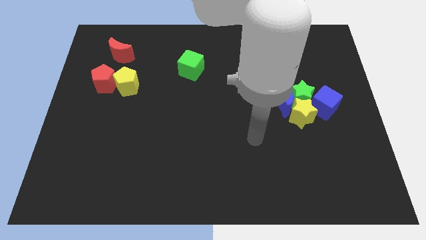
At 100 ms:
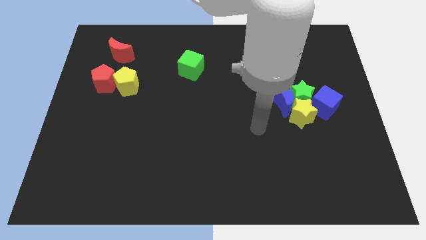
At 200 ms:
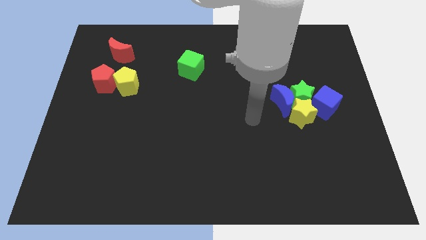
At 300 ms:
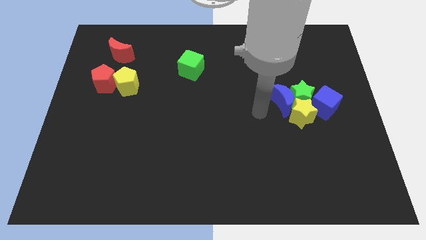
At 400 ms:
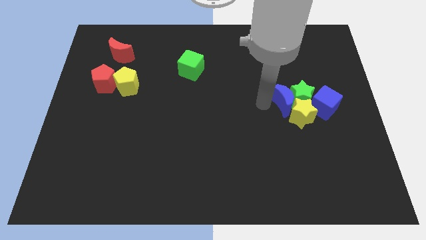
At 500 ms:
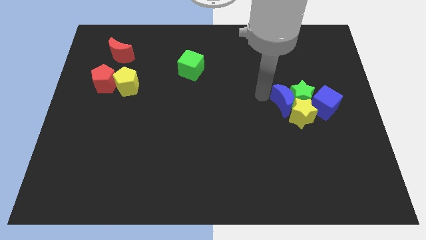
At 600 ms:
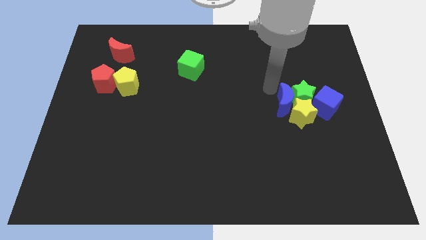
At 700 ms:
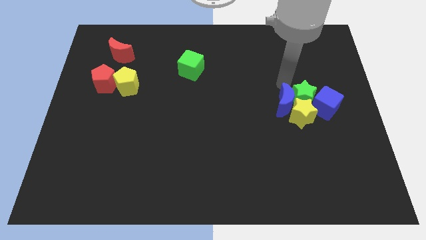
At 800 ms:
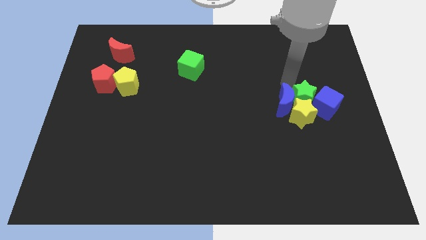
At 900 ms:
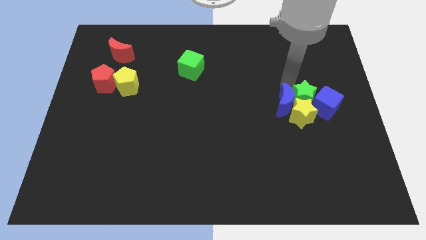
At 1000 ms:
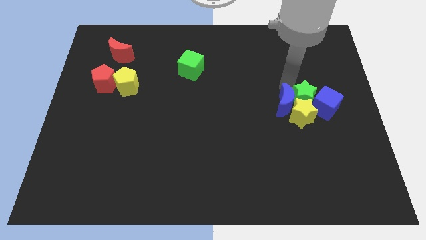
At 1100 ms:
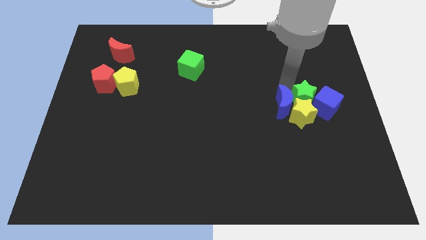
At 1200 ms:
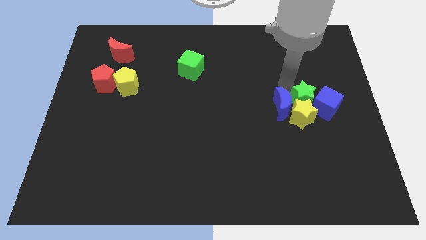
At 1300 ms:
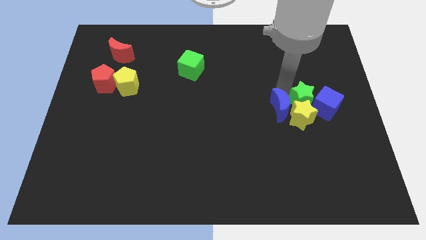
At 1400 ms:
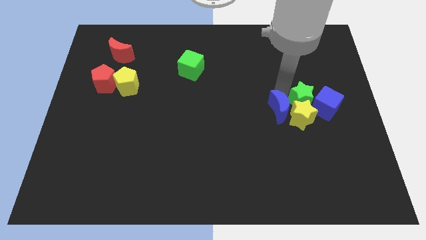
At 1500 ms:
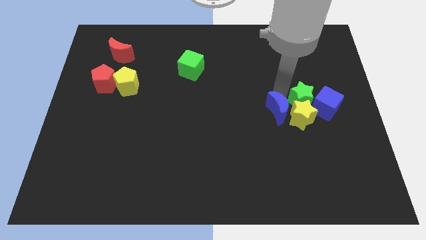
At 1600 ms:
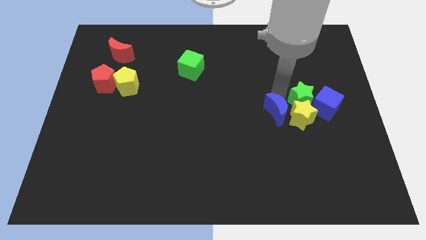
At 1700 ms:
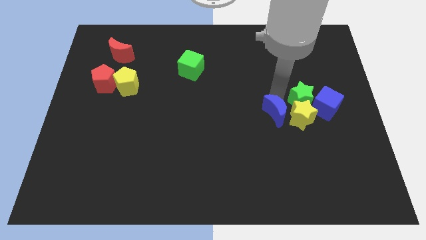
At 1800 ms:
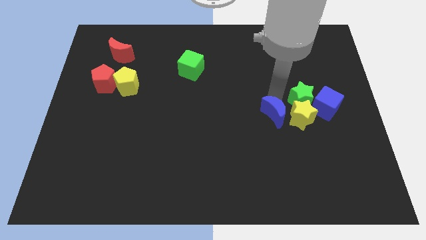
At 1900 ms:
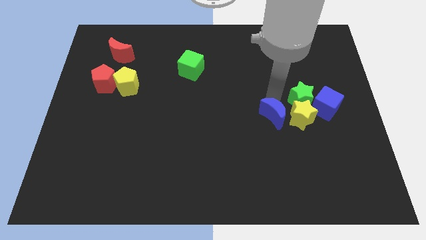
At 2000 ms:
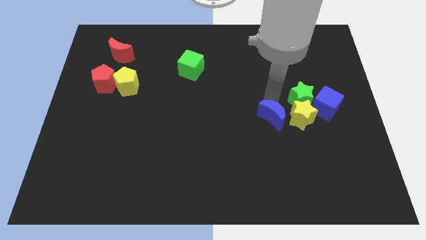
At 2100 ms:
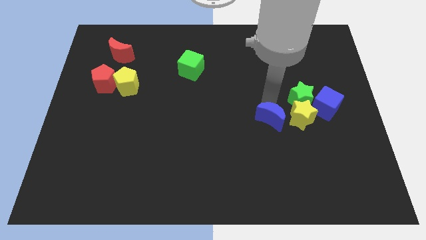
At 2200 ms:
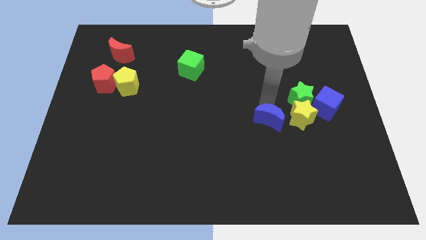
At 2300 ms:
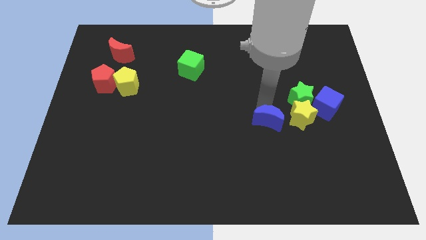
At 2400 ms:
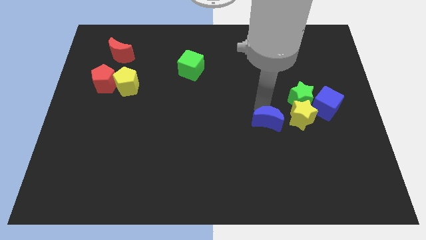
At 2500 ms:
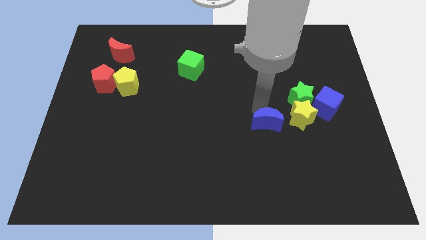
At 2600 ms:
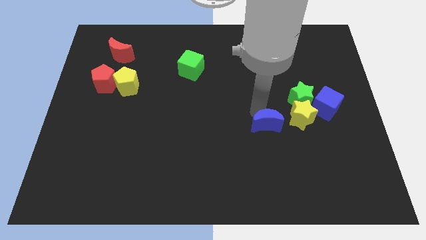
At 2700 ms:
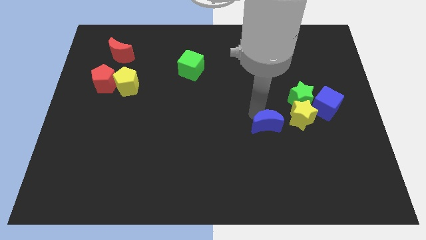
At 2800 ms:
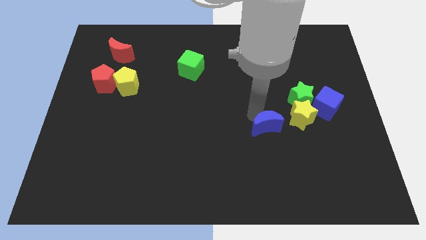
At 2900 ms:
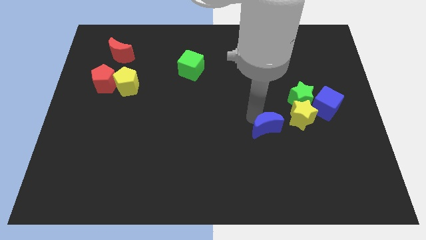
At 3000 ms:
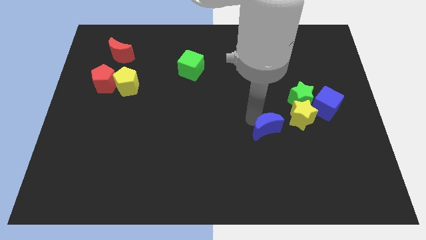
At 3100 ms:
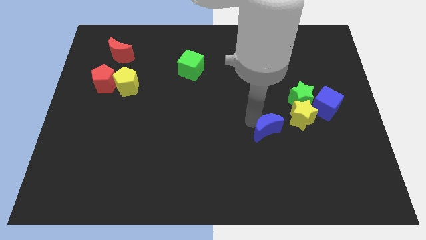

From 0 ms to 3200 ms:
slightly move the blue moon downwards

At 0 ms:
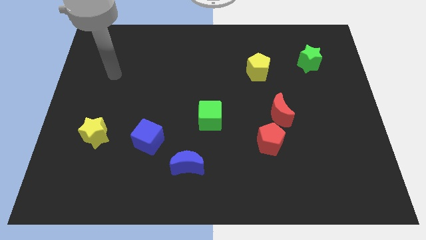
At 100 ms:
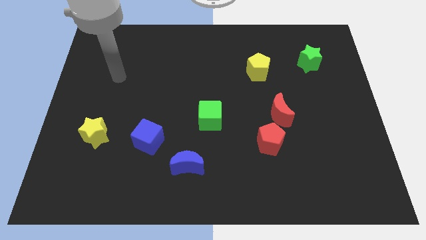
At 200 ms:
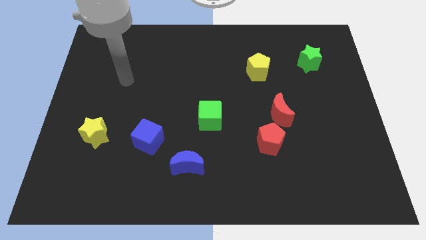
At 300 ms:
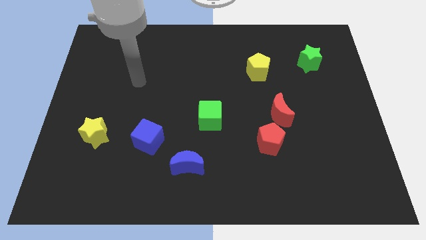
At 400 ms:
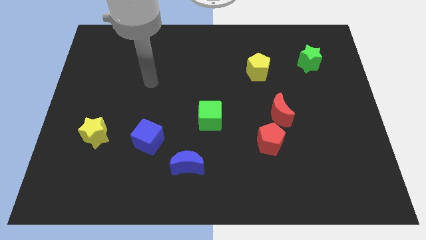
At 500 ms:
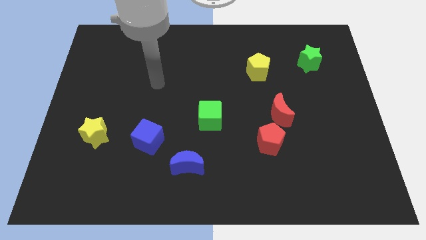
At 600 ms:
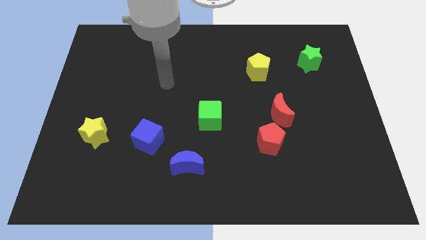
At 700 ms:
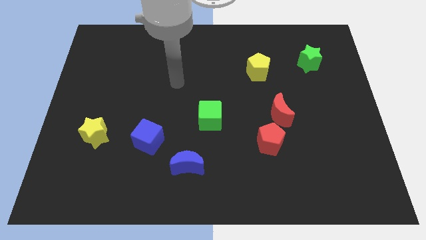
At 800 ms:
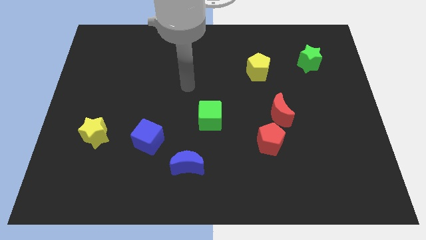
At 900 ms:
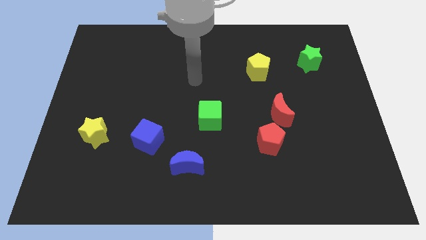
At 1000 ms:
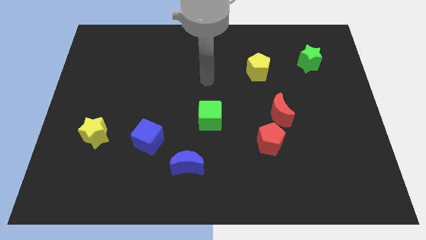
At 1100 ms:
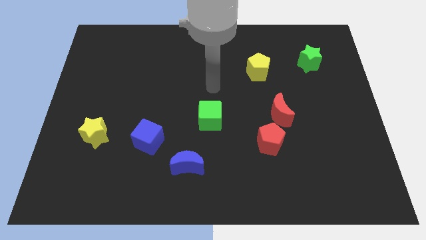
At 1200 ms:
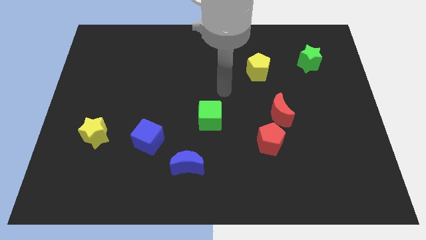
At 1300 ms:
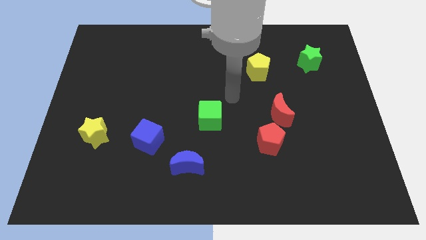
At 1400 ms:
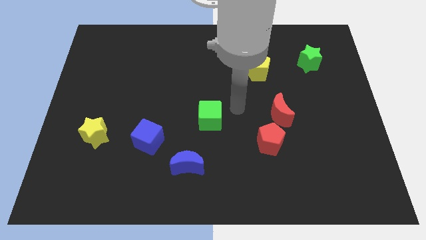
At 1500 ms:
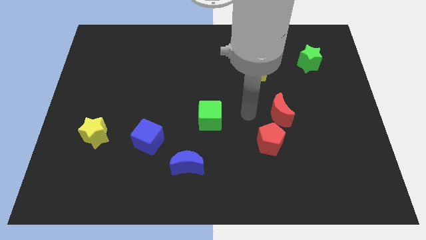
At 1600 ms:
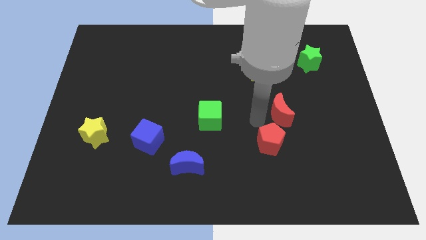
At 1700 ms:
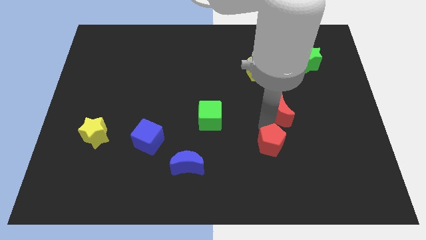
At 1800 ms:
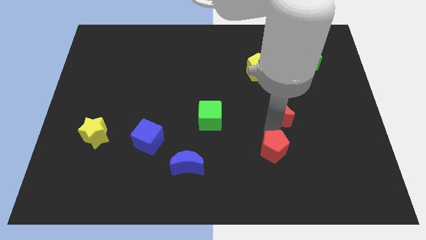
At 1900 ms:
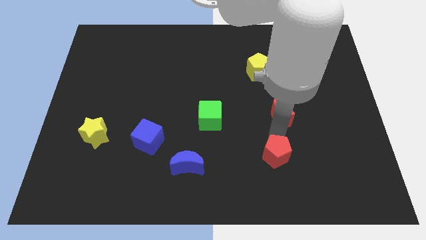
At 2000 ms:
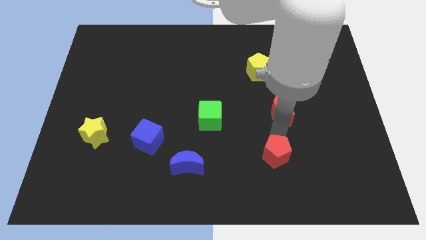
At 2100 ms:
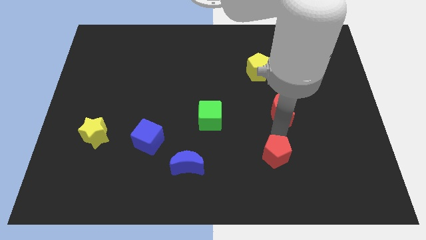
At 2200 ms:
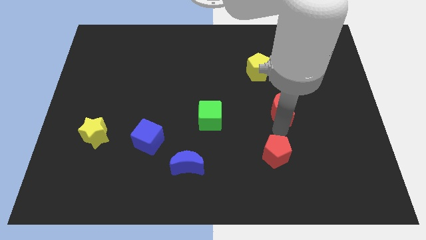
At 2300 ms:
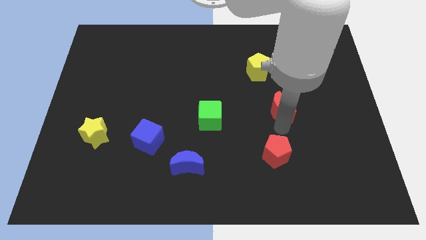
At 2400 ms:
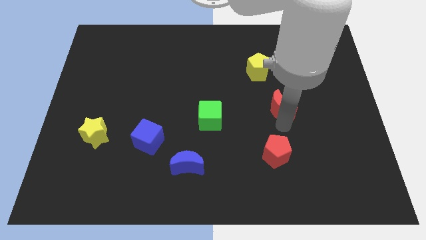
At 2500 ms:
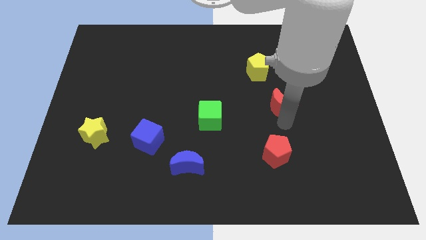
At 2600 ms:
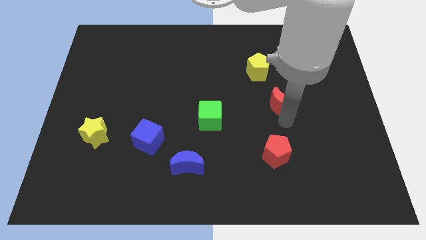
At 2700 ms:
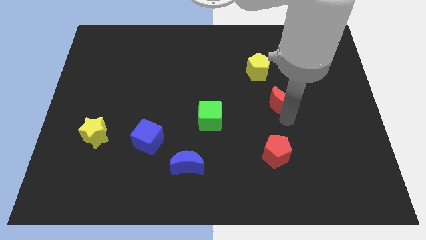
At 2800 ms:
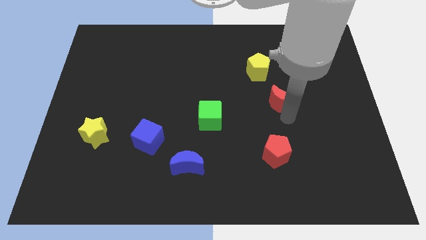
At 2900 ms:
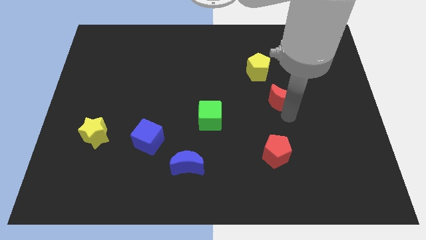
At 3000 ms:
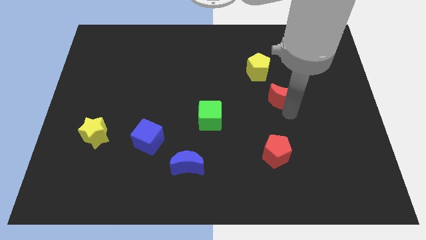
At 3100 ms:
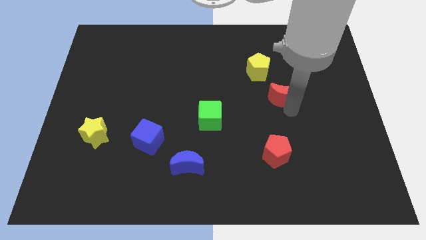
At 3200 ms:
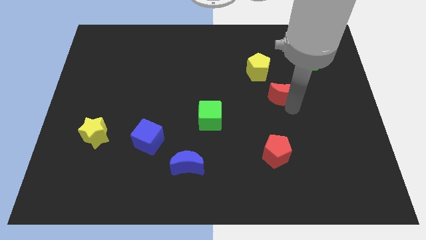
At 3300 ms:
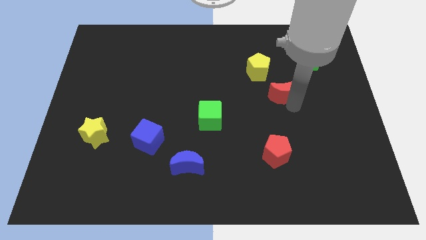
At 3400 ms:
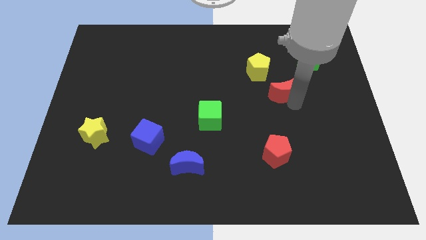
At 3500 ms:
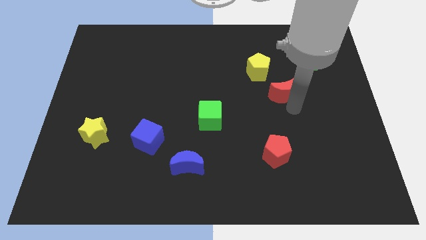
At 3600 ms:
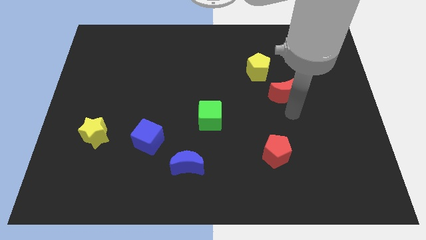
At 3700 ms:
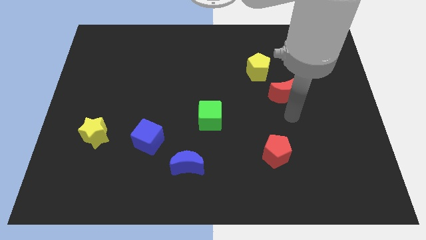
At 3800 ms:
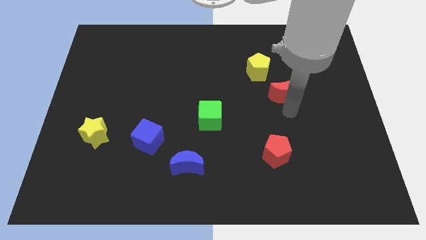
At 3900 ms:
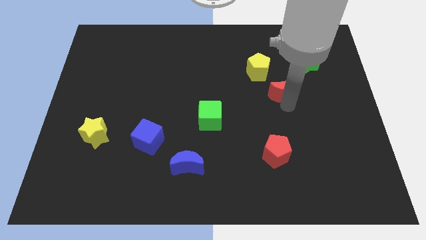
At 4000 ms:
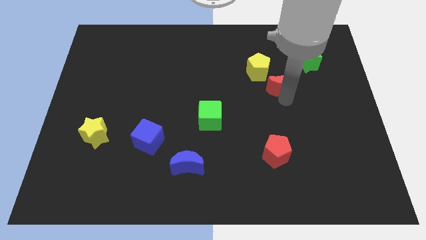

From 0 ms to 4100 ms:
slightly move the red moon upwards

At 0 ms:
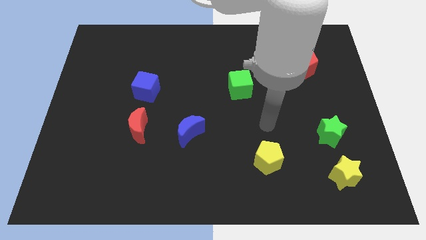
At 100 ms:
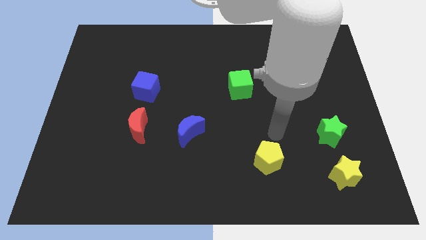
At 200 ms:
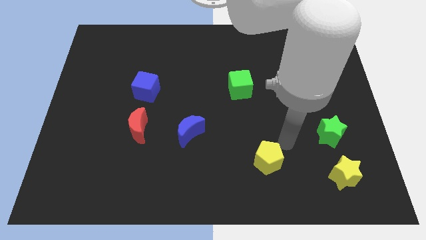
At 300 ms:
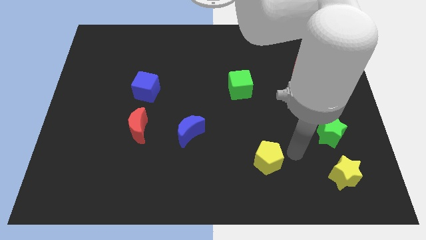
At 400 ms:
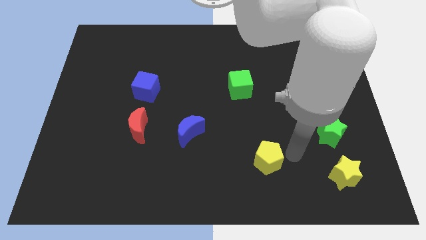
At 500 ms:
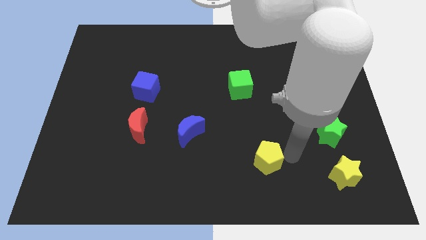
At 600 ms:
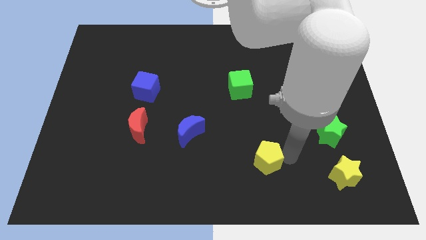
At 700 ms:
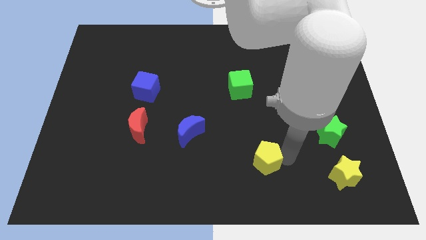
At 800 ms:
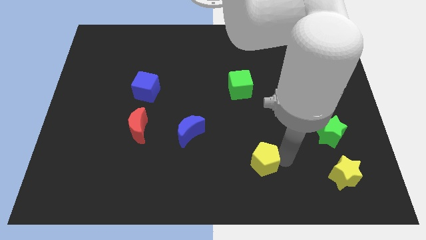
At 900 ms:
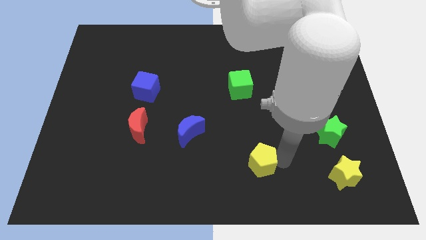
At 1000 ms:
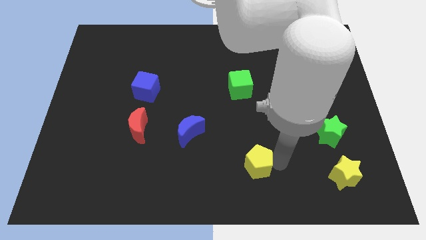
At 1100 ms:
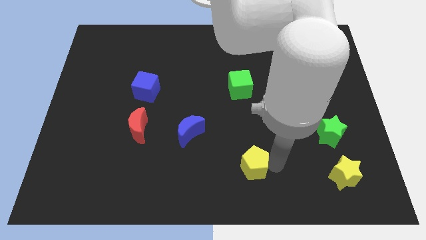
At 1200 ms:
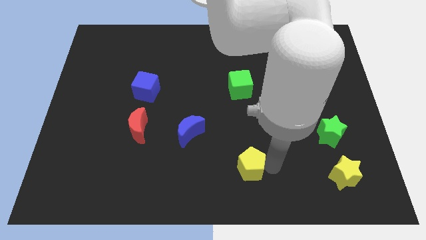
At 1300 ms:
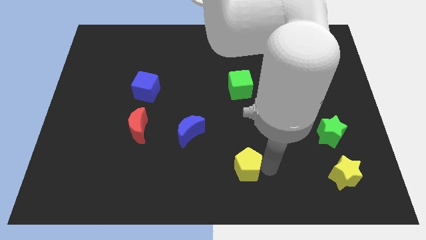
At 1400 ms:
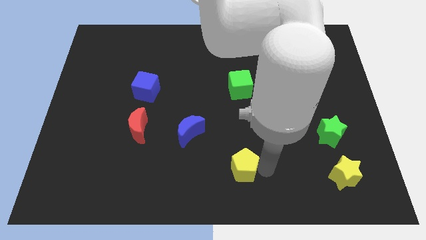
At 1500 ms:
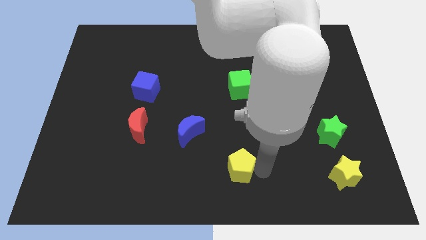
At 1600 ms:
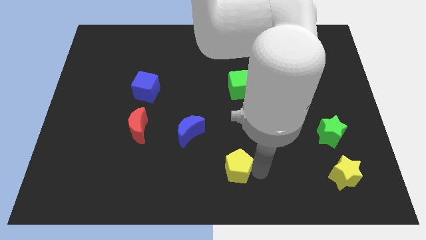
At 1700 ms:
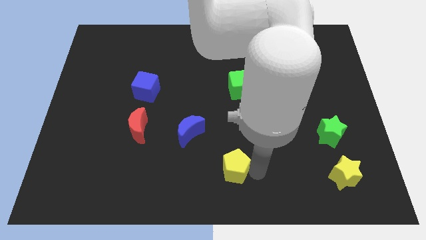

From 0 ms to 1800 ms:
slide the yellow pentagon to the left a little
